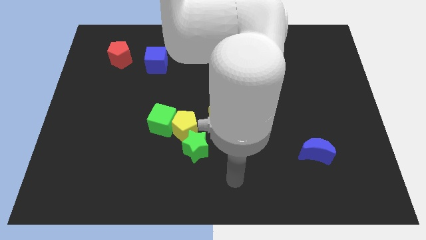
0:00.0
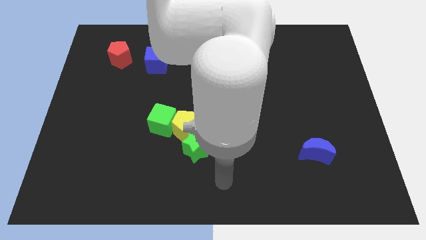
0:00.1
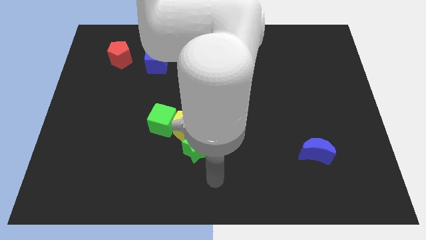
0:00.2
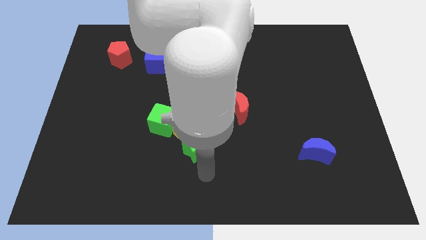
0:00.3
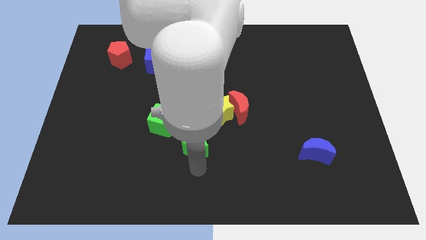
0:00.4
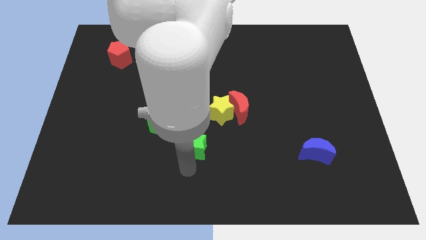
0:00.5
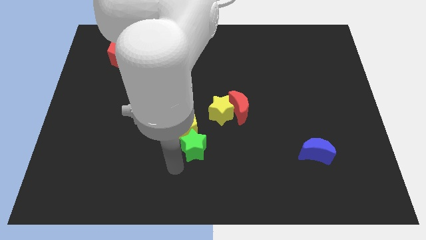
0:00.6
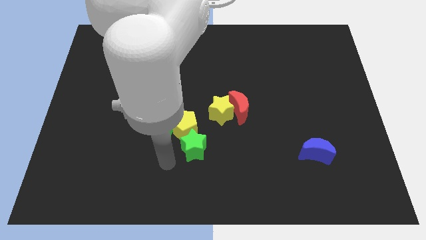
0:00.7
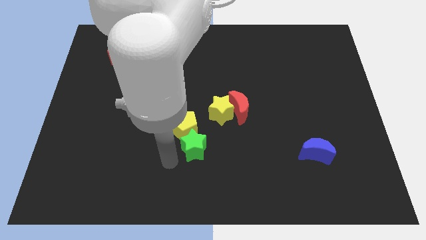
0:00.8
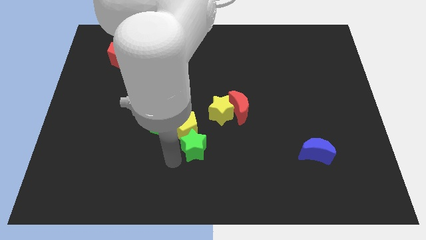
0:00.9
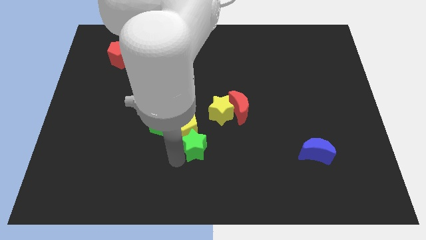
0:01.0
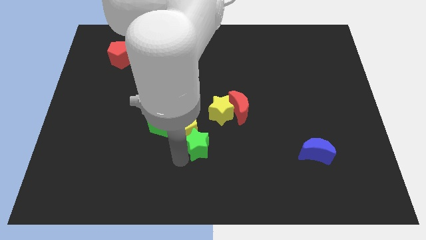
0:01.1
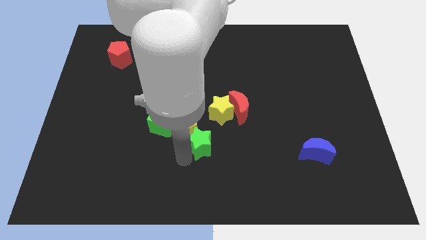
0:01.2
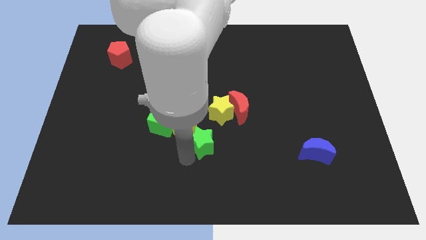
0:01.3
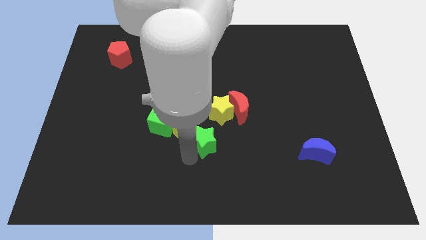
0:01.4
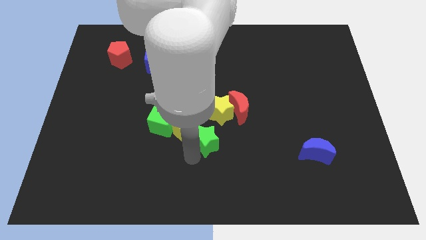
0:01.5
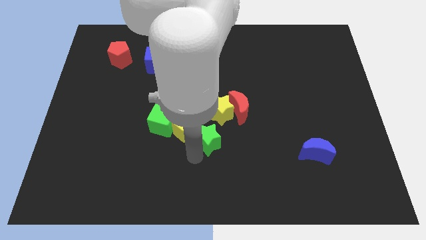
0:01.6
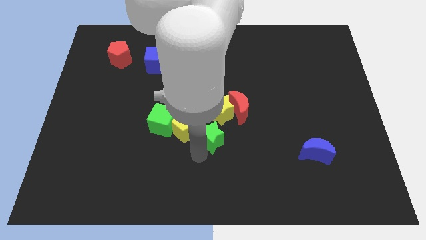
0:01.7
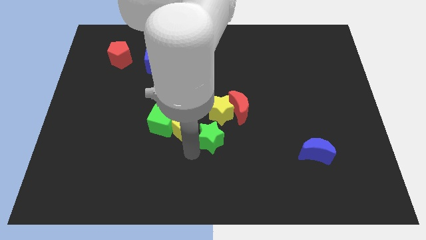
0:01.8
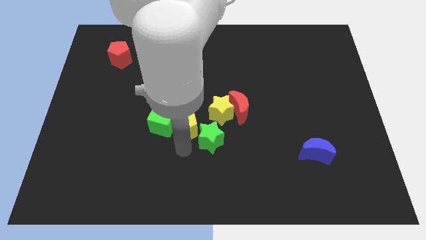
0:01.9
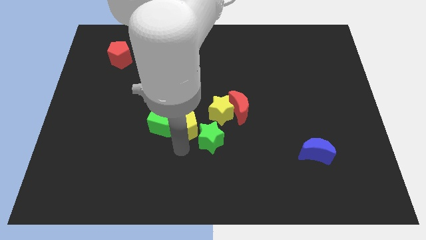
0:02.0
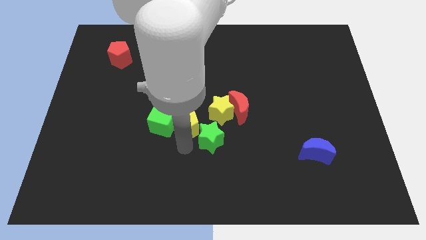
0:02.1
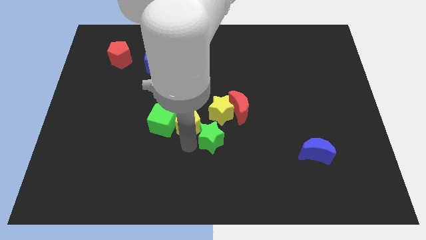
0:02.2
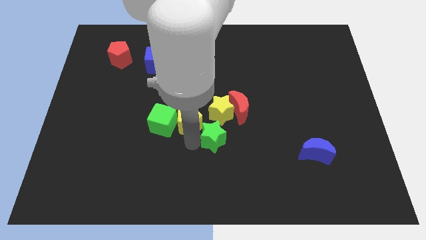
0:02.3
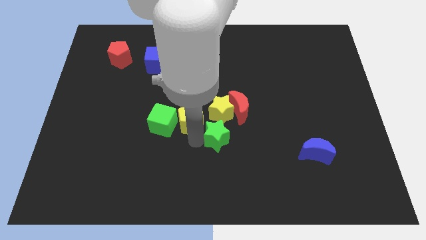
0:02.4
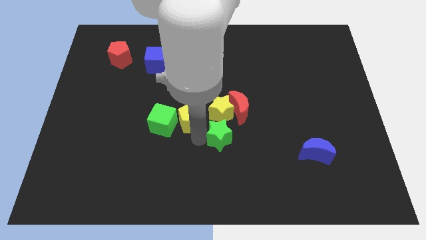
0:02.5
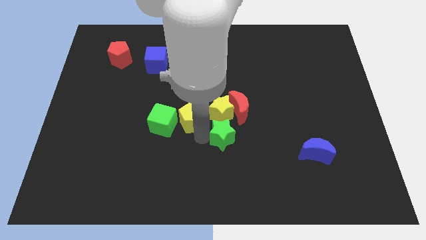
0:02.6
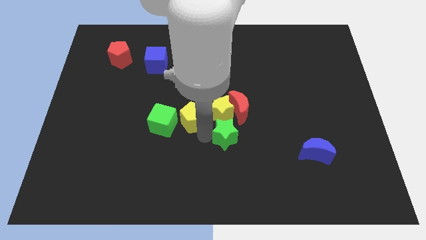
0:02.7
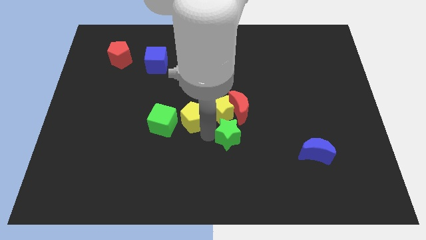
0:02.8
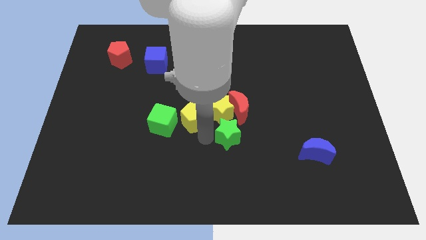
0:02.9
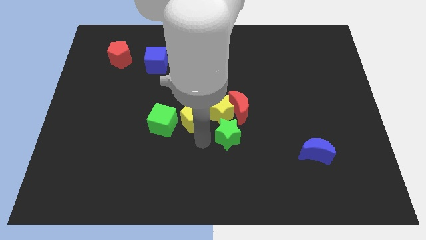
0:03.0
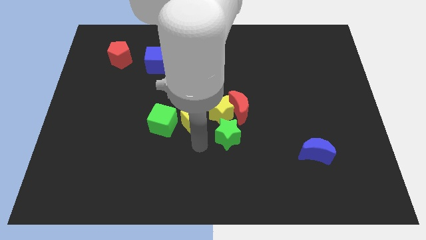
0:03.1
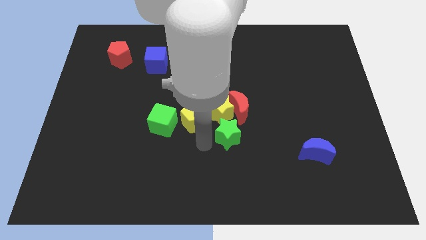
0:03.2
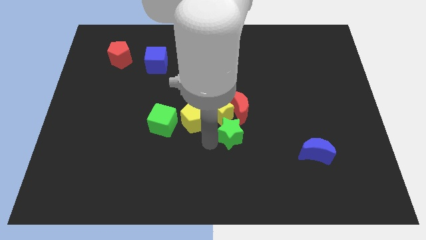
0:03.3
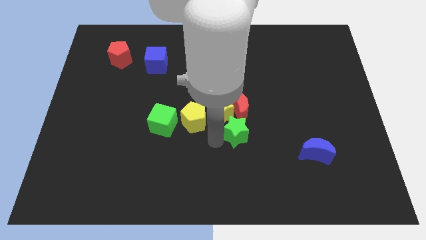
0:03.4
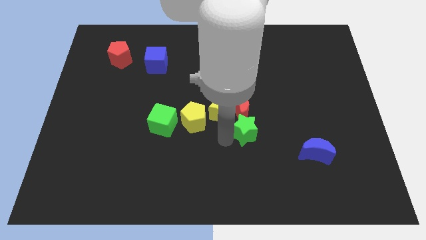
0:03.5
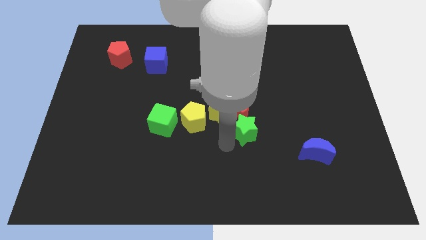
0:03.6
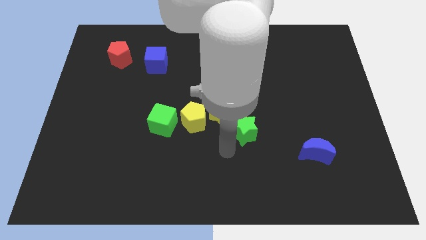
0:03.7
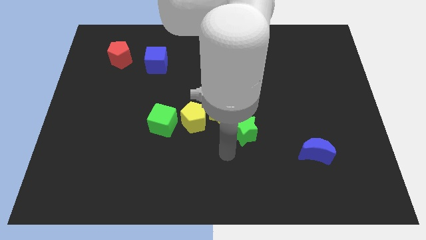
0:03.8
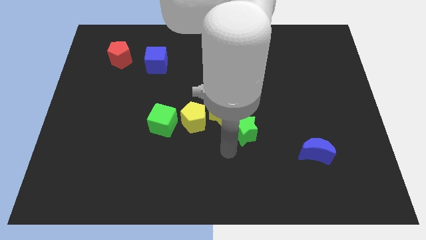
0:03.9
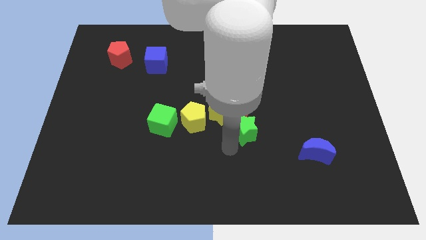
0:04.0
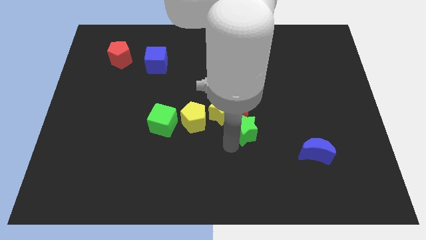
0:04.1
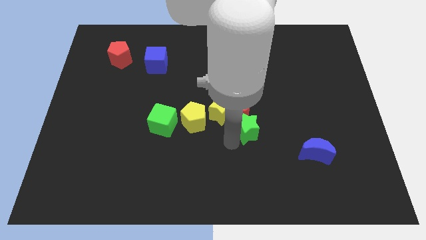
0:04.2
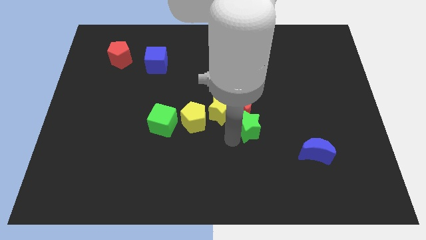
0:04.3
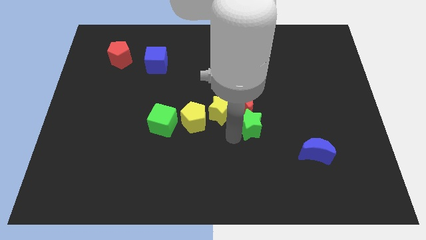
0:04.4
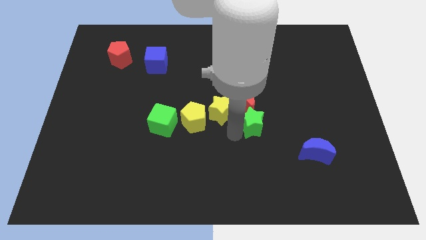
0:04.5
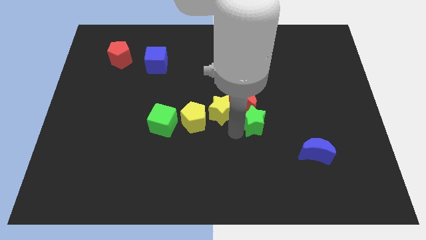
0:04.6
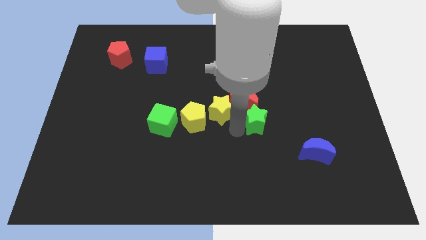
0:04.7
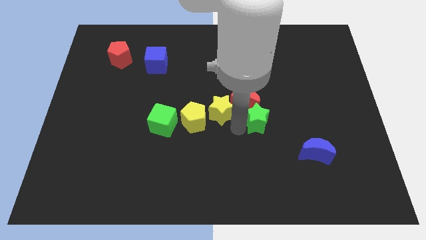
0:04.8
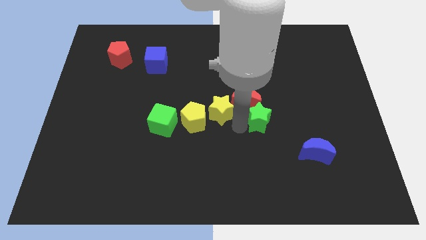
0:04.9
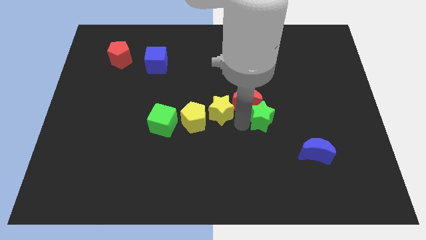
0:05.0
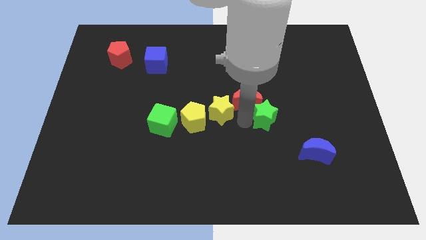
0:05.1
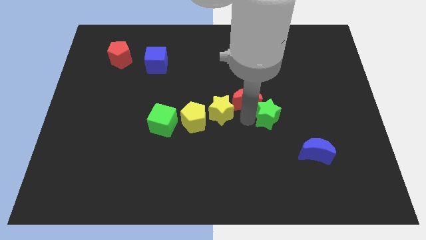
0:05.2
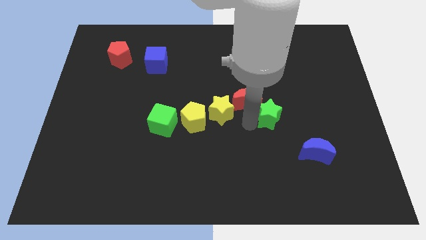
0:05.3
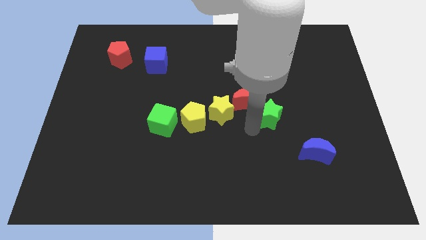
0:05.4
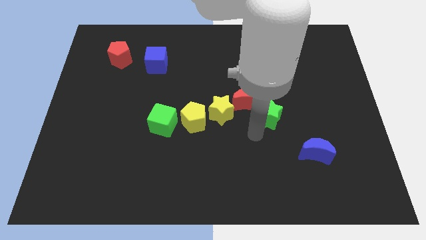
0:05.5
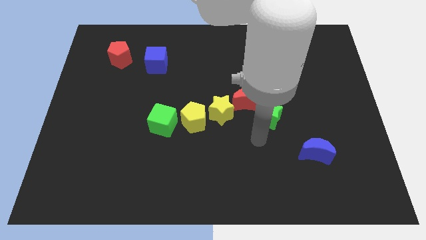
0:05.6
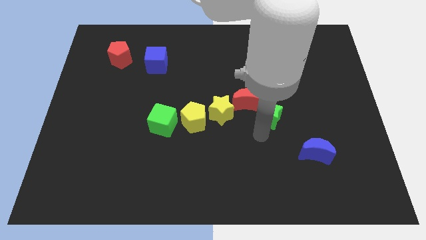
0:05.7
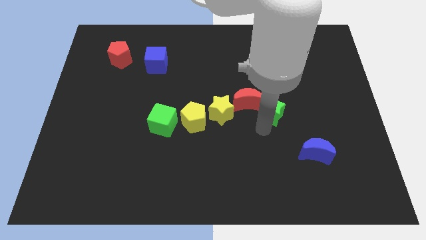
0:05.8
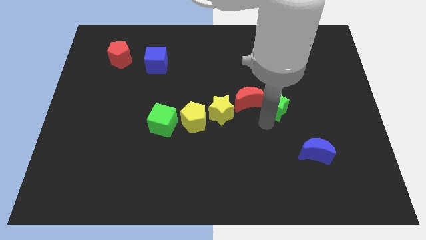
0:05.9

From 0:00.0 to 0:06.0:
move the green star up and then right

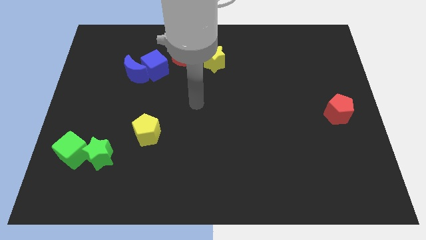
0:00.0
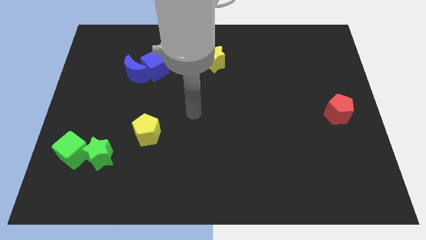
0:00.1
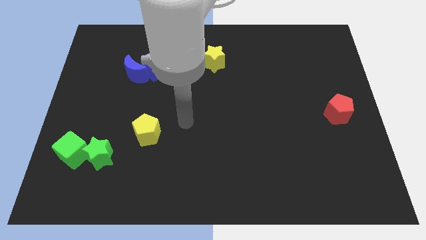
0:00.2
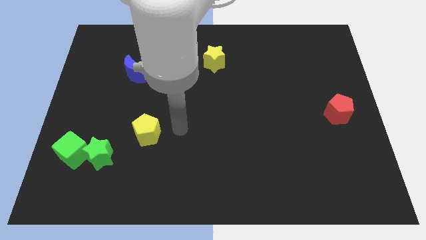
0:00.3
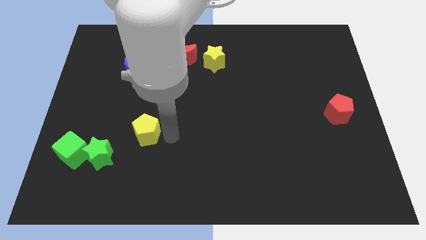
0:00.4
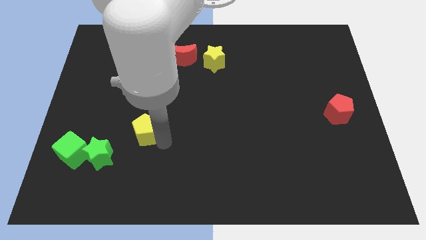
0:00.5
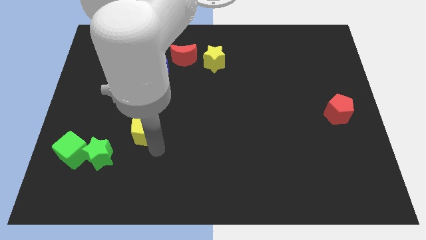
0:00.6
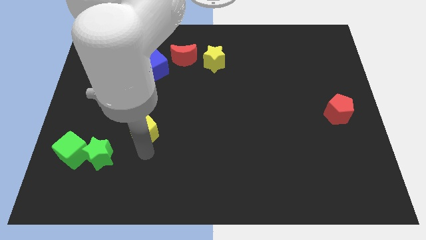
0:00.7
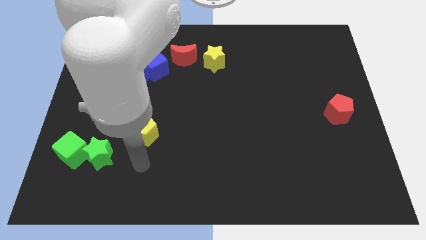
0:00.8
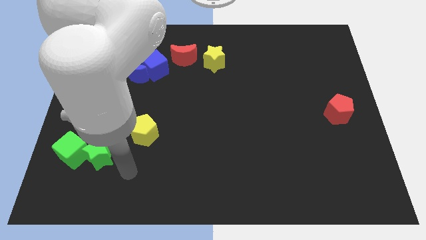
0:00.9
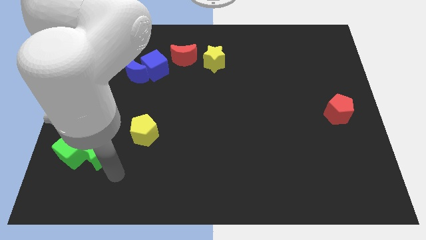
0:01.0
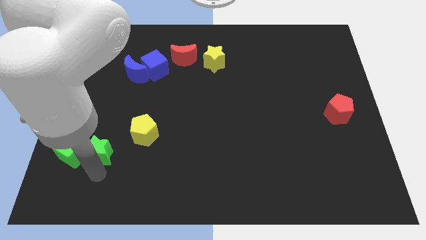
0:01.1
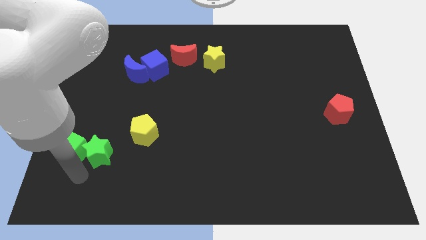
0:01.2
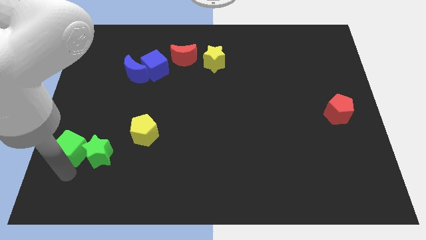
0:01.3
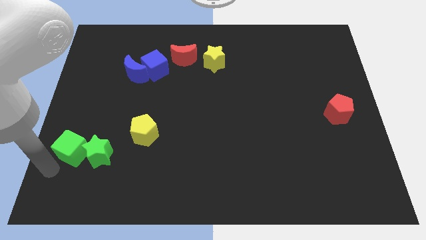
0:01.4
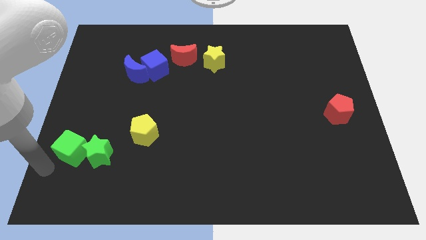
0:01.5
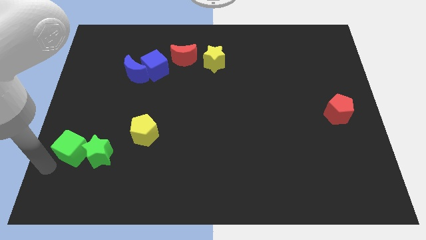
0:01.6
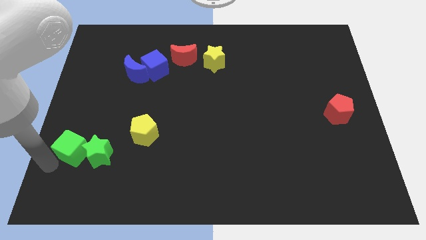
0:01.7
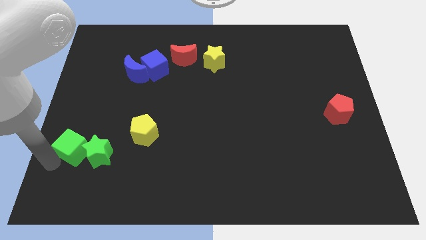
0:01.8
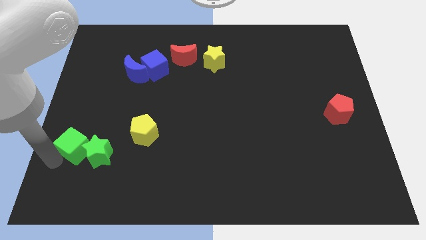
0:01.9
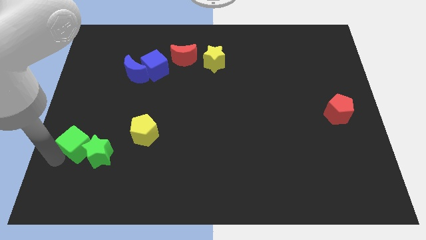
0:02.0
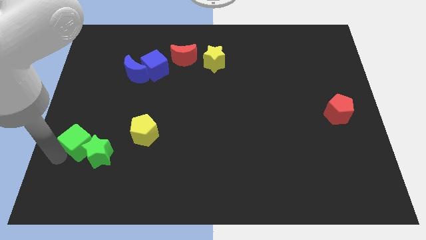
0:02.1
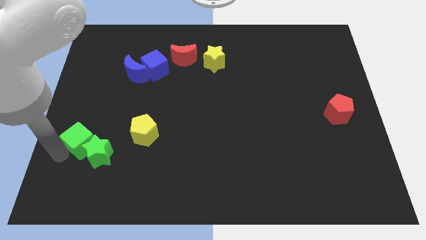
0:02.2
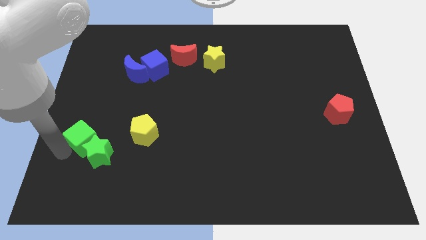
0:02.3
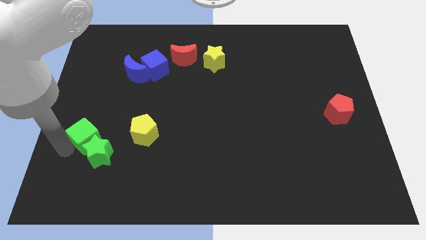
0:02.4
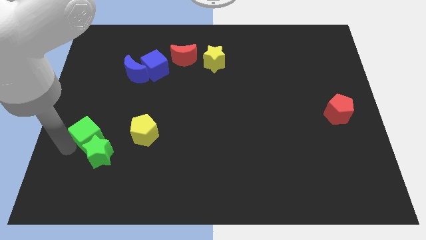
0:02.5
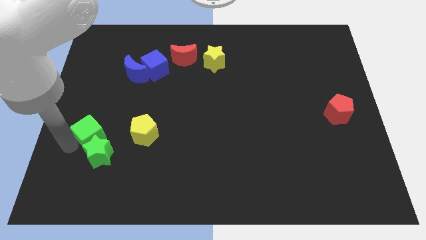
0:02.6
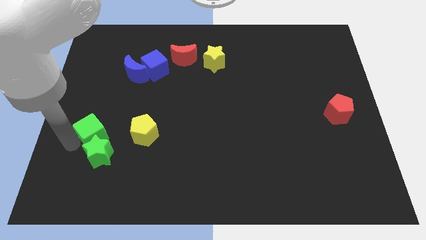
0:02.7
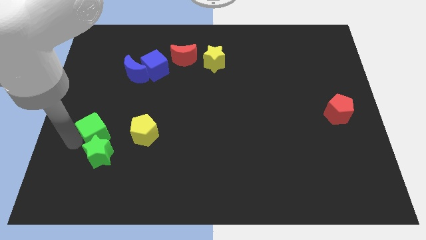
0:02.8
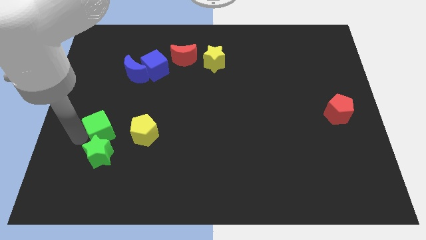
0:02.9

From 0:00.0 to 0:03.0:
slightly push the green cube diagonally up and to the right
